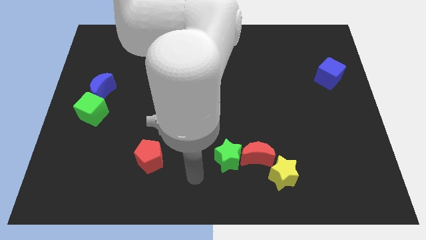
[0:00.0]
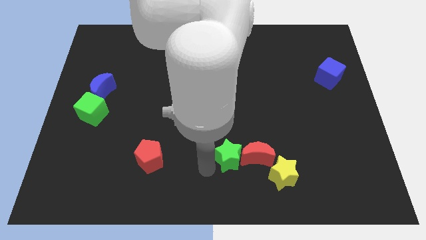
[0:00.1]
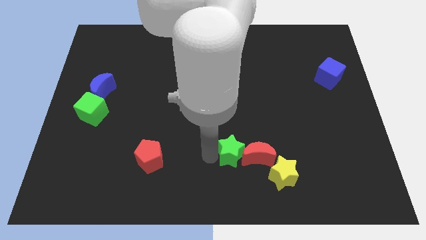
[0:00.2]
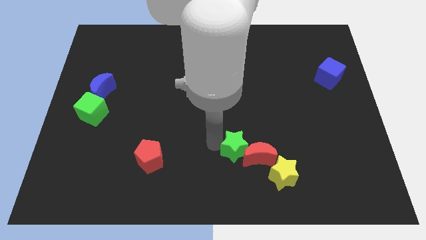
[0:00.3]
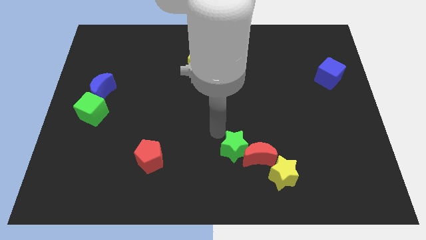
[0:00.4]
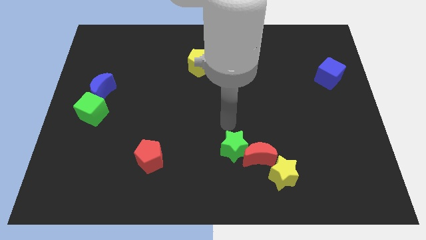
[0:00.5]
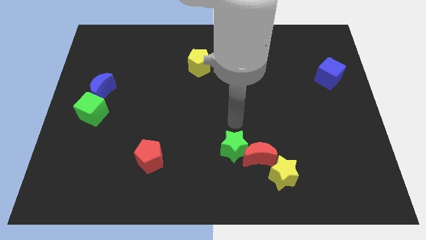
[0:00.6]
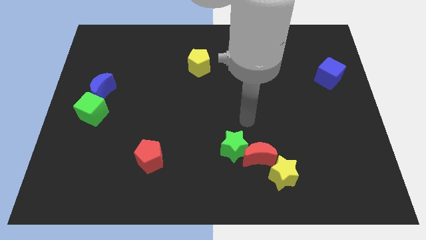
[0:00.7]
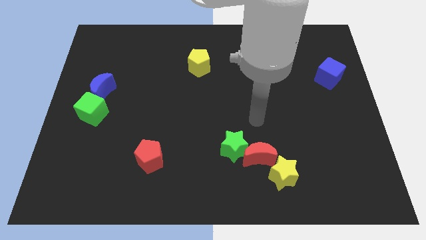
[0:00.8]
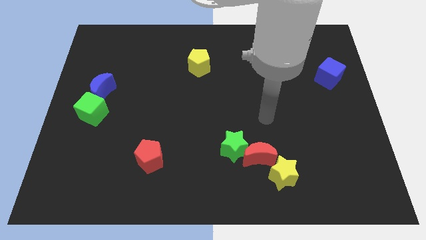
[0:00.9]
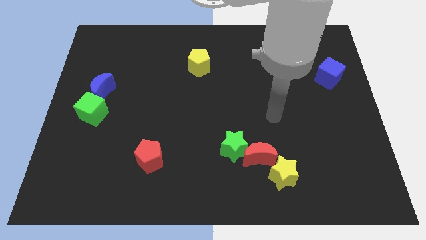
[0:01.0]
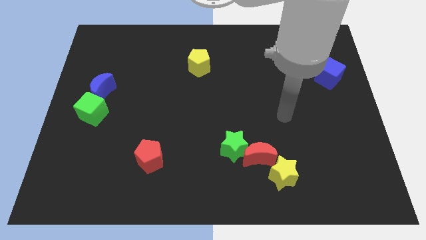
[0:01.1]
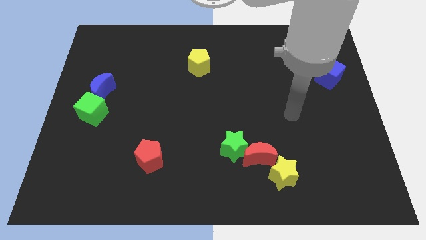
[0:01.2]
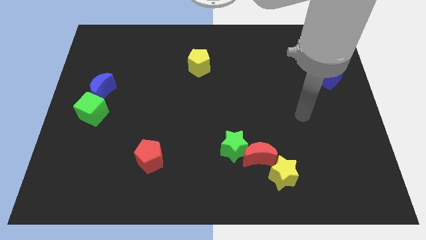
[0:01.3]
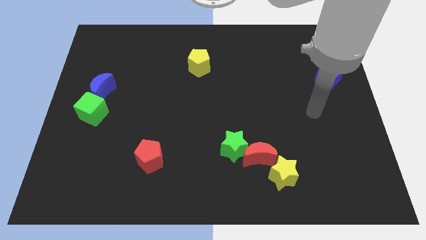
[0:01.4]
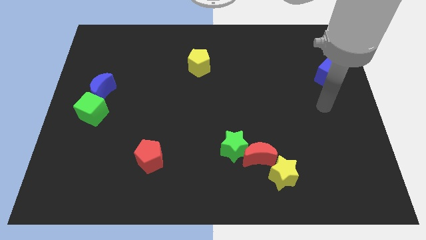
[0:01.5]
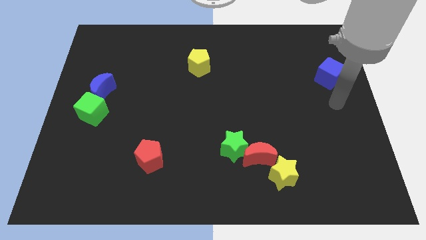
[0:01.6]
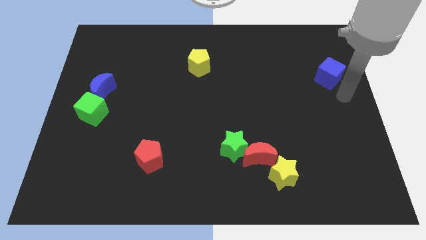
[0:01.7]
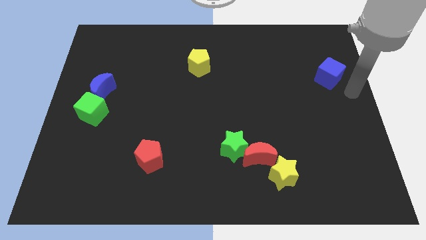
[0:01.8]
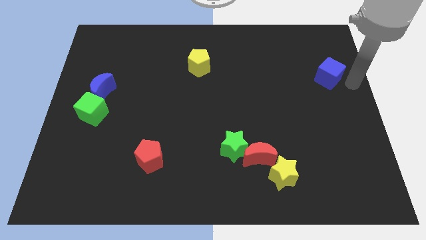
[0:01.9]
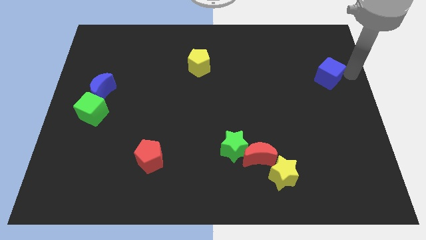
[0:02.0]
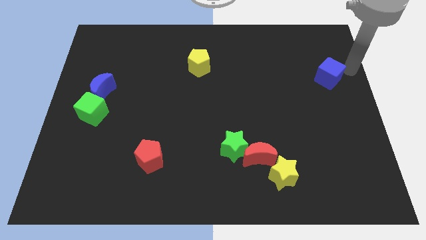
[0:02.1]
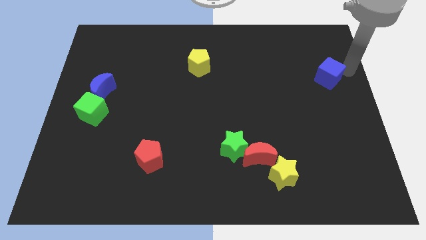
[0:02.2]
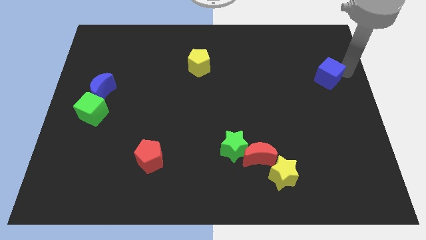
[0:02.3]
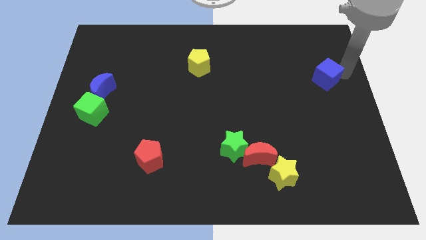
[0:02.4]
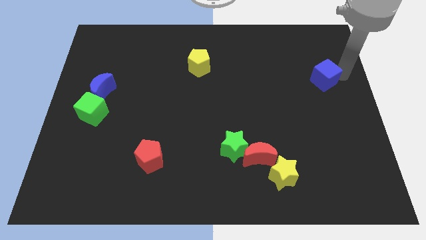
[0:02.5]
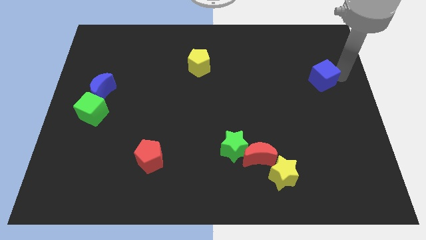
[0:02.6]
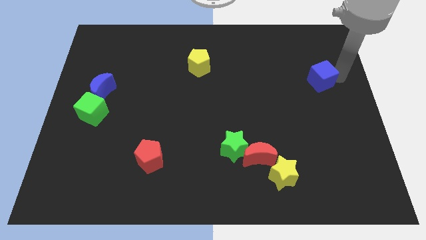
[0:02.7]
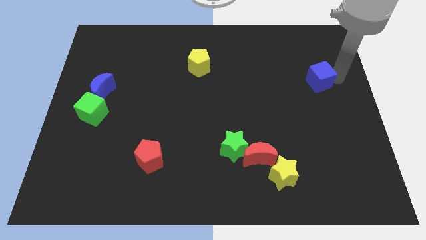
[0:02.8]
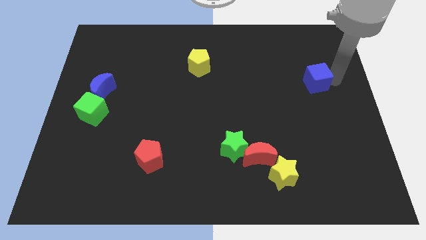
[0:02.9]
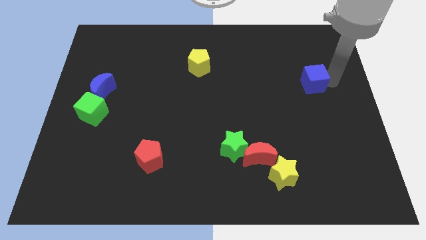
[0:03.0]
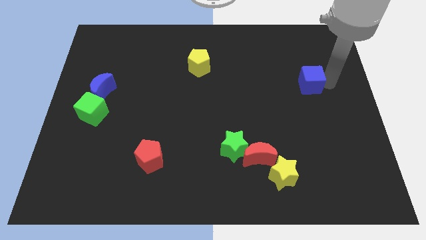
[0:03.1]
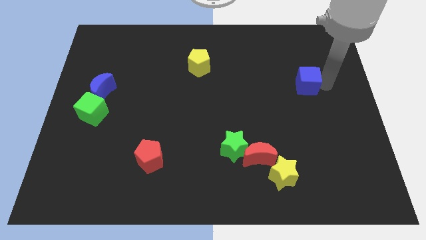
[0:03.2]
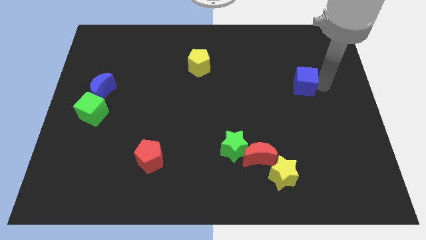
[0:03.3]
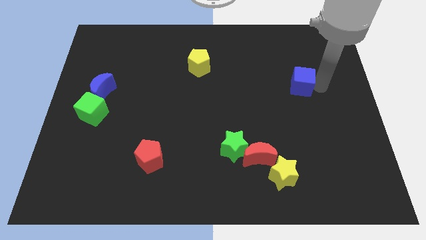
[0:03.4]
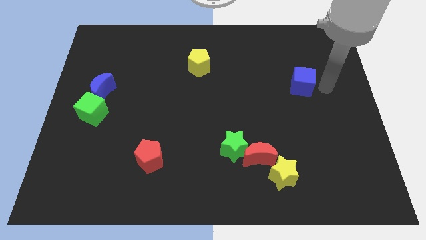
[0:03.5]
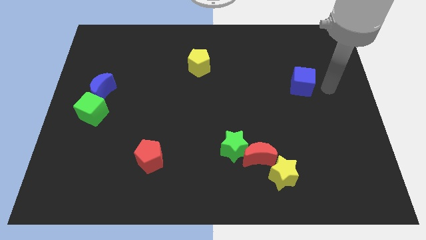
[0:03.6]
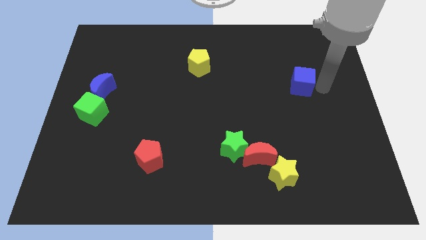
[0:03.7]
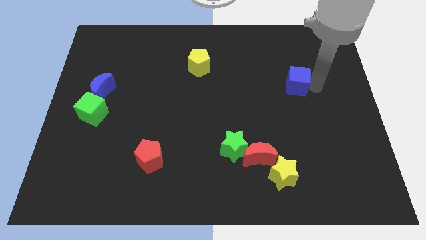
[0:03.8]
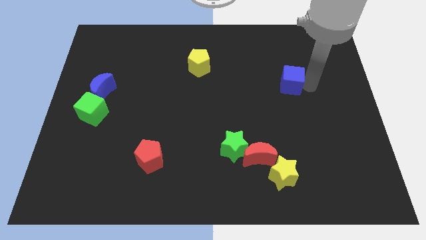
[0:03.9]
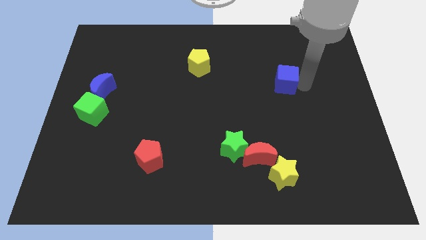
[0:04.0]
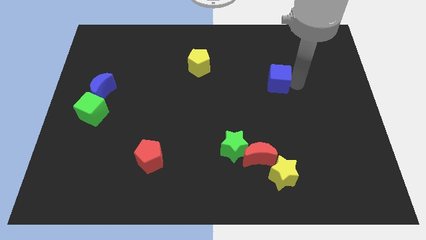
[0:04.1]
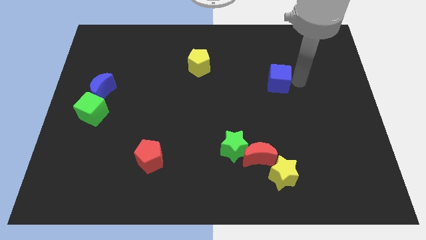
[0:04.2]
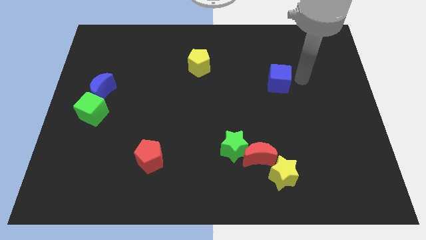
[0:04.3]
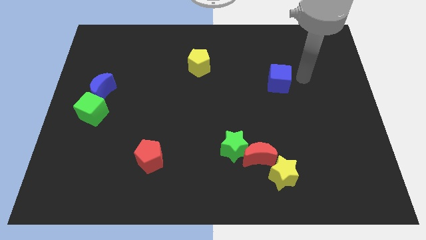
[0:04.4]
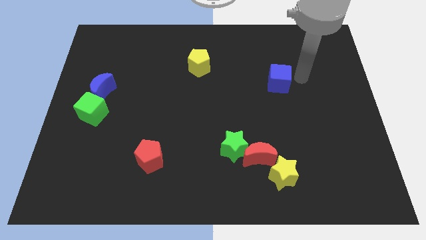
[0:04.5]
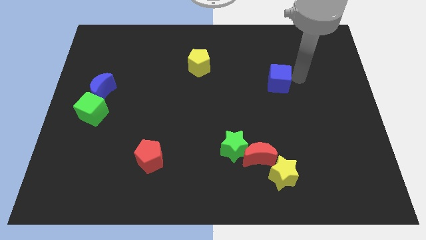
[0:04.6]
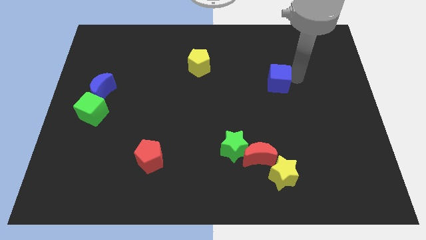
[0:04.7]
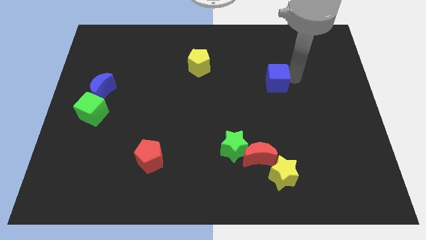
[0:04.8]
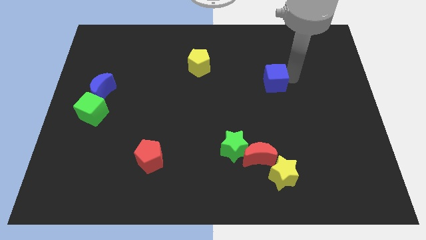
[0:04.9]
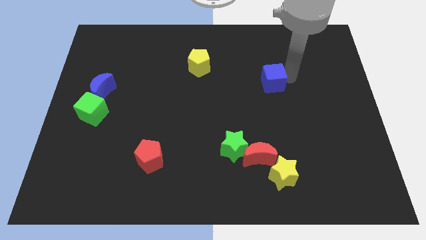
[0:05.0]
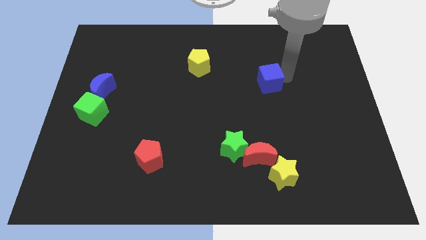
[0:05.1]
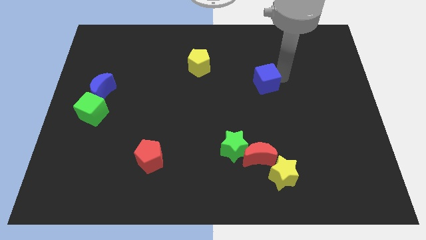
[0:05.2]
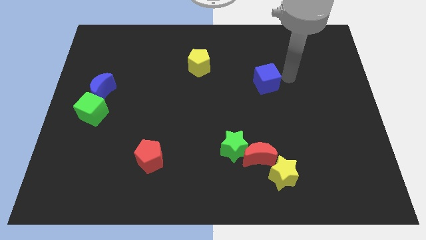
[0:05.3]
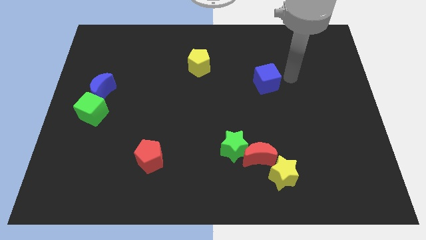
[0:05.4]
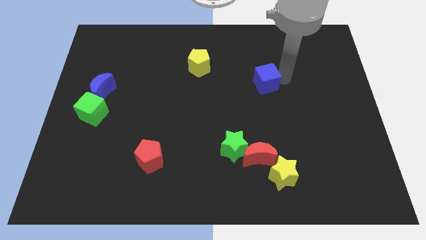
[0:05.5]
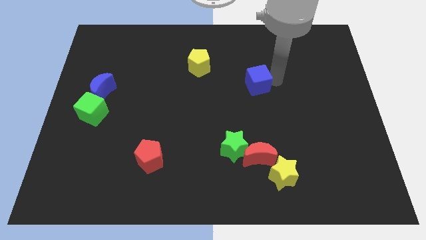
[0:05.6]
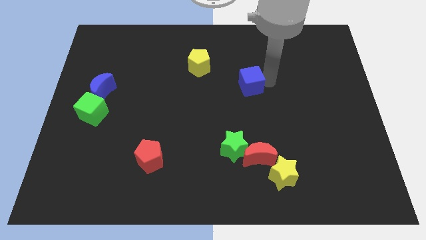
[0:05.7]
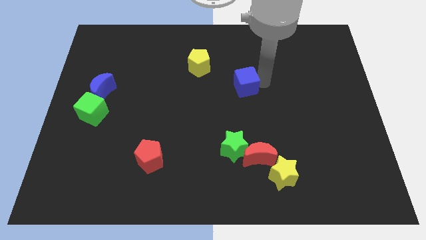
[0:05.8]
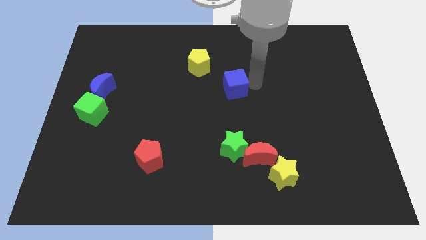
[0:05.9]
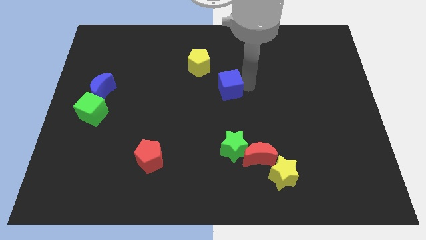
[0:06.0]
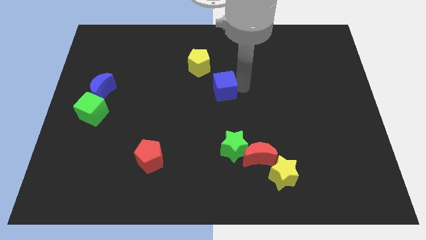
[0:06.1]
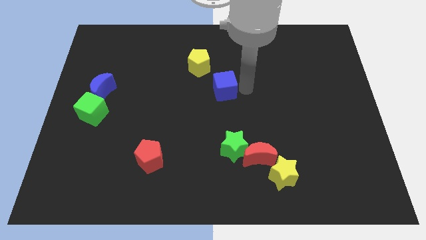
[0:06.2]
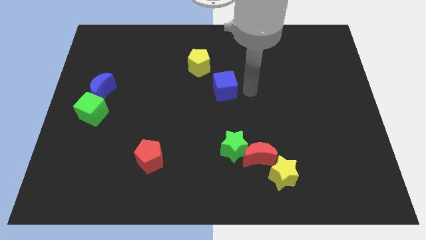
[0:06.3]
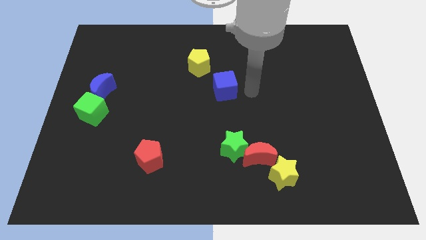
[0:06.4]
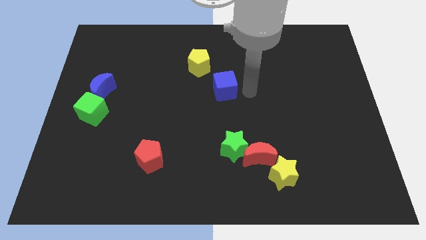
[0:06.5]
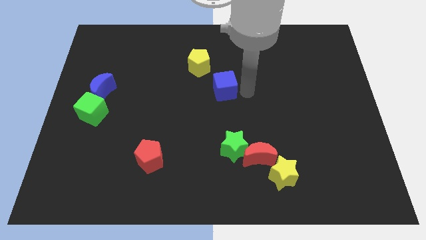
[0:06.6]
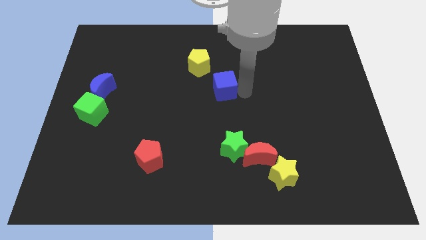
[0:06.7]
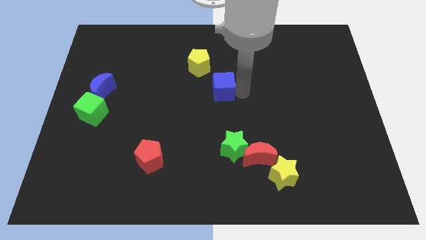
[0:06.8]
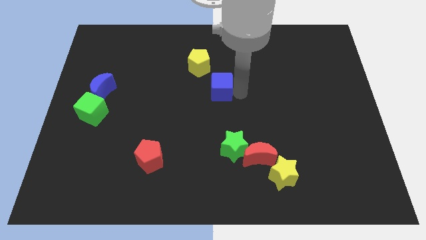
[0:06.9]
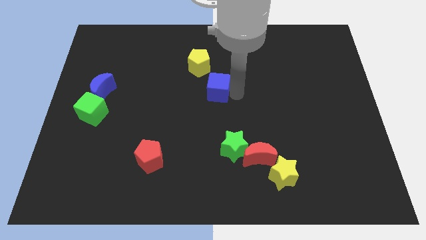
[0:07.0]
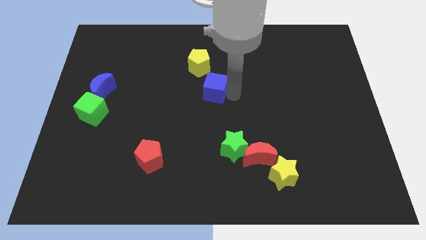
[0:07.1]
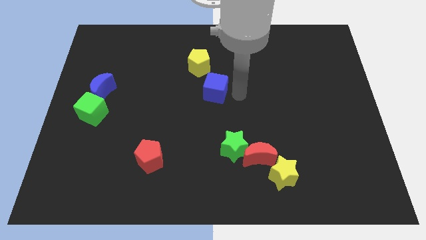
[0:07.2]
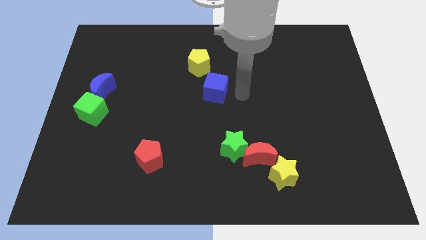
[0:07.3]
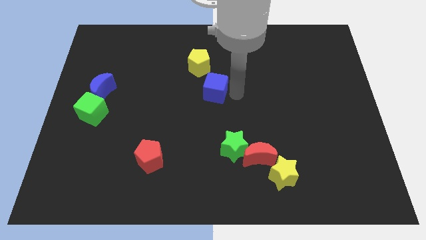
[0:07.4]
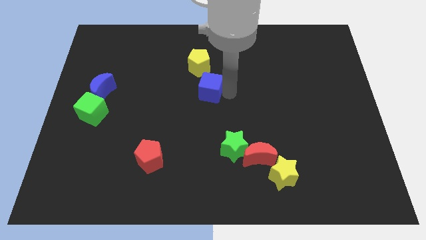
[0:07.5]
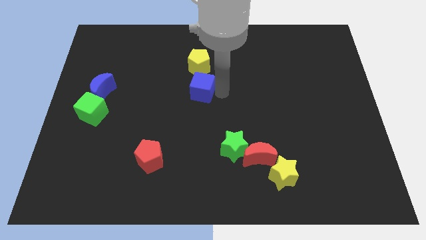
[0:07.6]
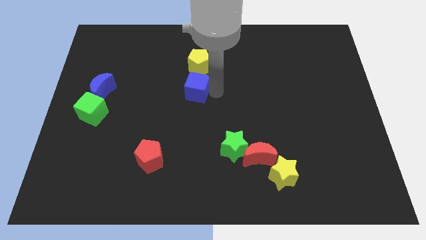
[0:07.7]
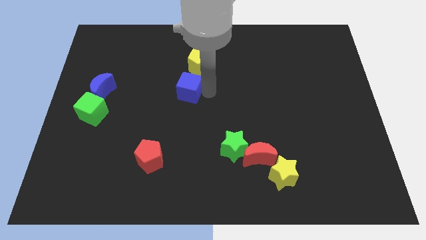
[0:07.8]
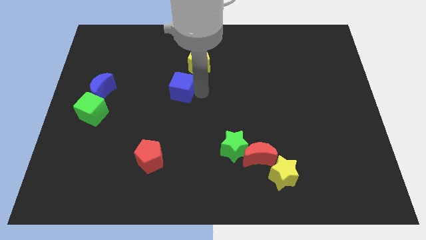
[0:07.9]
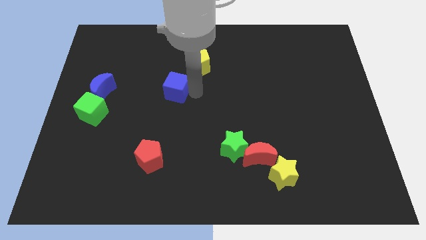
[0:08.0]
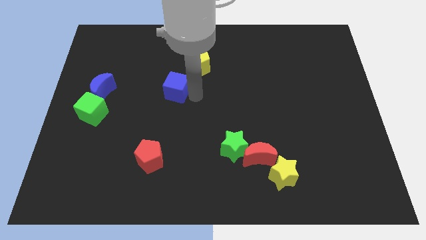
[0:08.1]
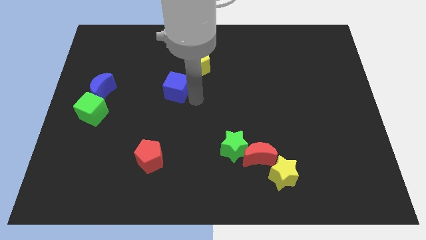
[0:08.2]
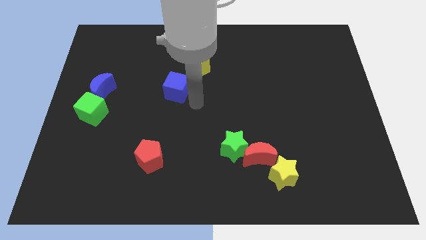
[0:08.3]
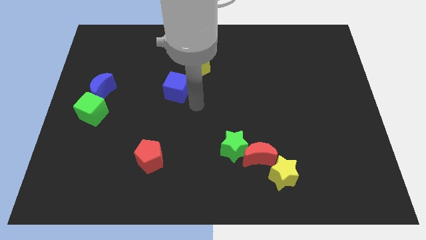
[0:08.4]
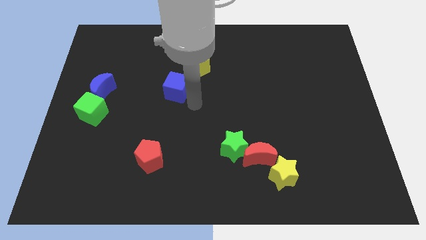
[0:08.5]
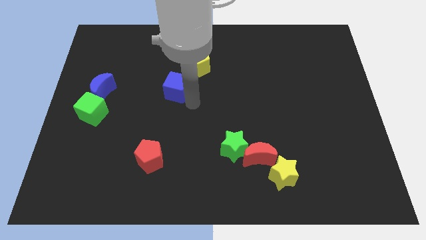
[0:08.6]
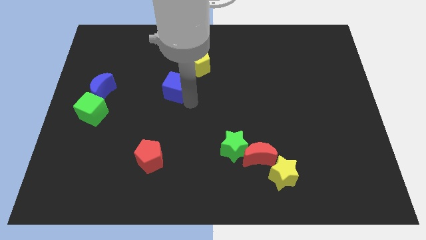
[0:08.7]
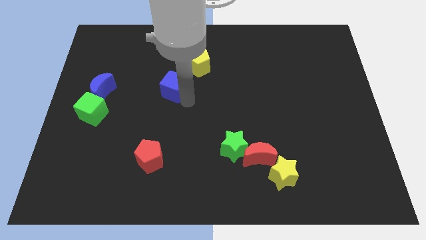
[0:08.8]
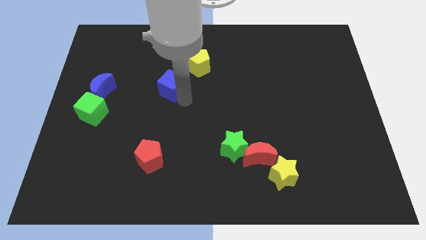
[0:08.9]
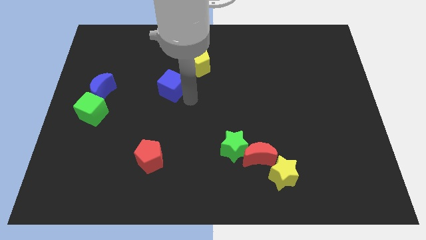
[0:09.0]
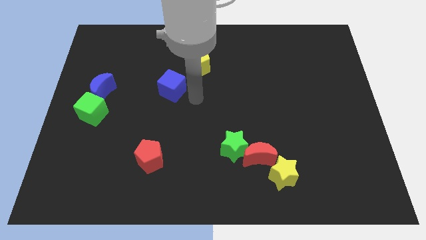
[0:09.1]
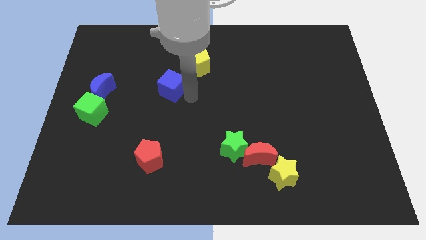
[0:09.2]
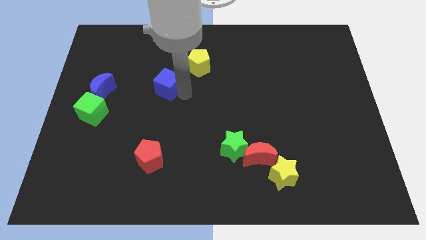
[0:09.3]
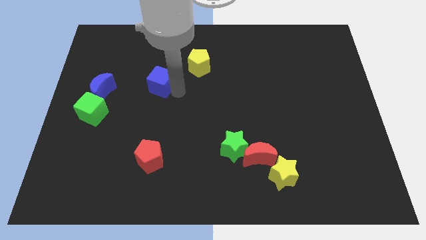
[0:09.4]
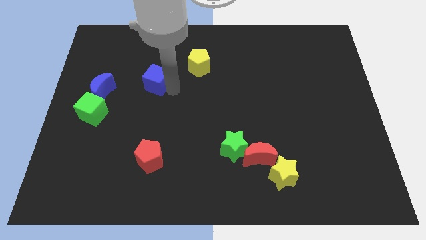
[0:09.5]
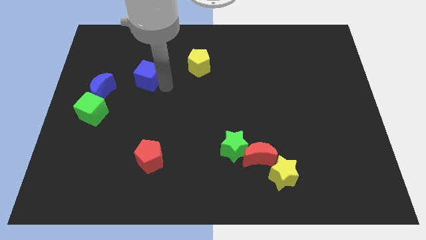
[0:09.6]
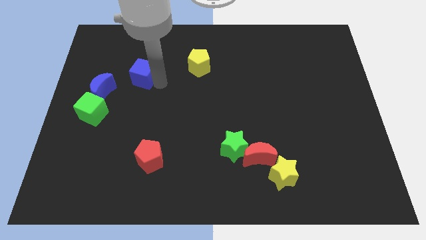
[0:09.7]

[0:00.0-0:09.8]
slide the blue cube to the top right of the blue moon
